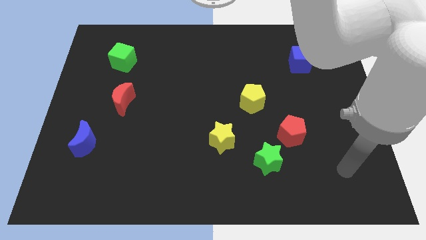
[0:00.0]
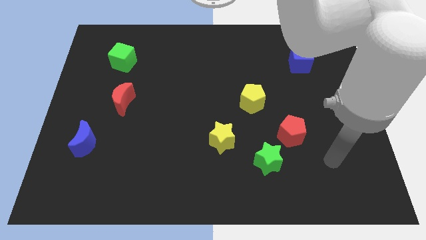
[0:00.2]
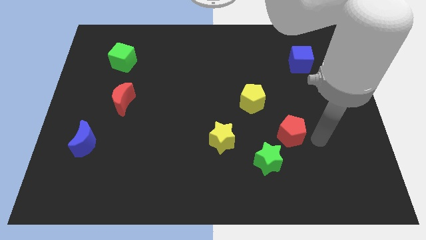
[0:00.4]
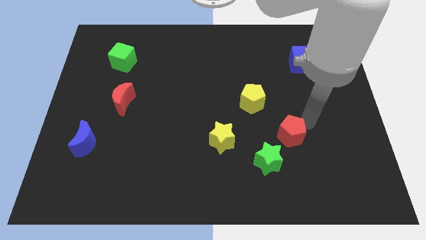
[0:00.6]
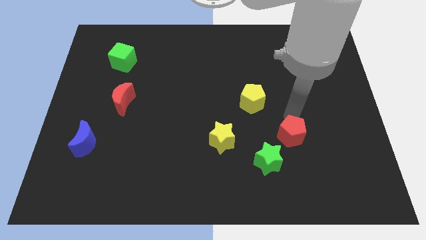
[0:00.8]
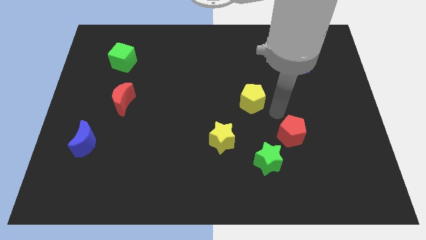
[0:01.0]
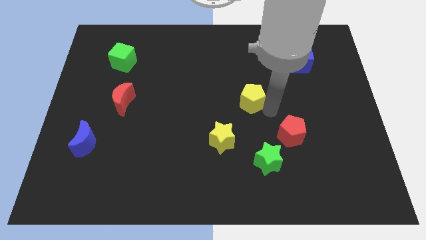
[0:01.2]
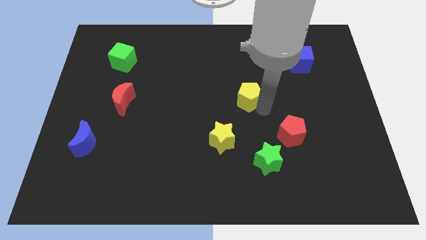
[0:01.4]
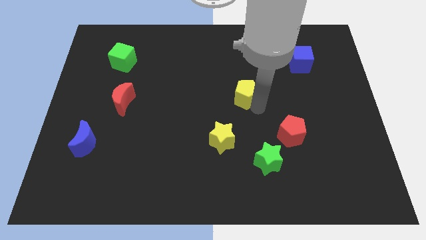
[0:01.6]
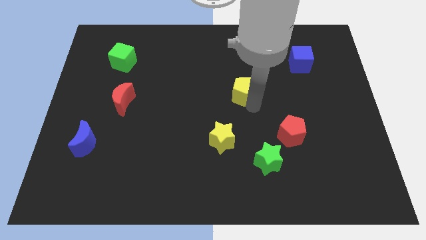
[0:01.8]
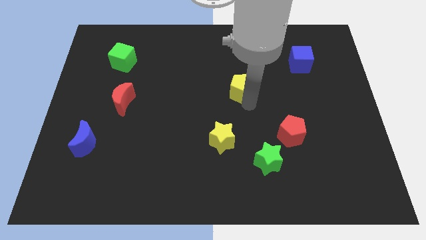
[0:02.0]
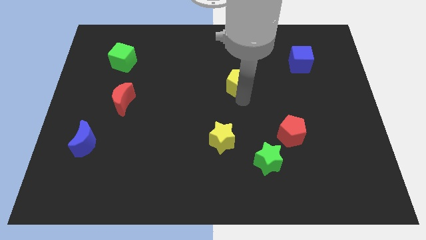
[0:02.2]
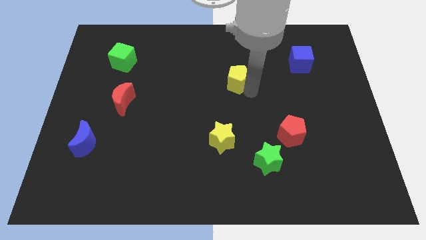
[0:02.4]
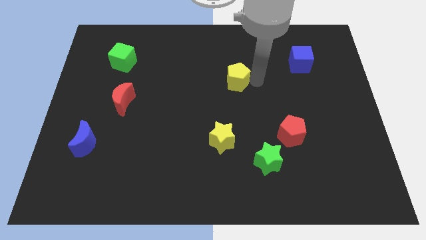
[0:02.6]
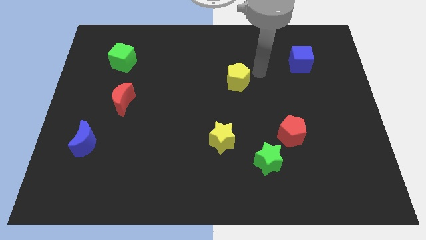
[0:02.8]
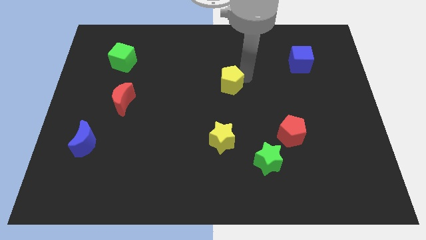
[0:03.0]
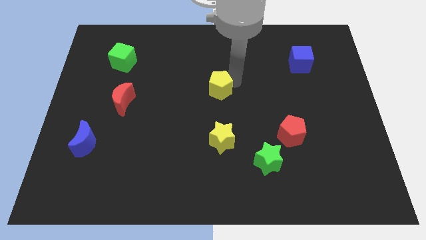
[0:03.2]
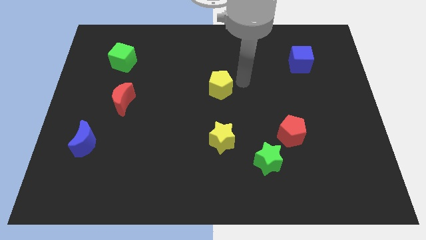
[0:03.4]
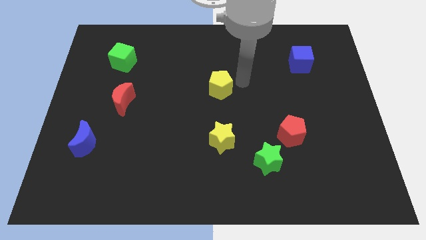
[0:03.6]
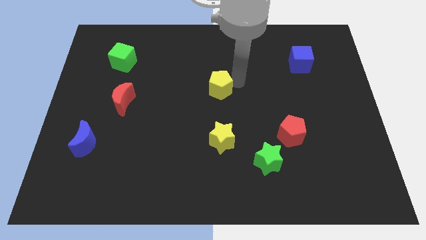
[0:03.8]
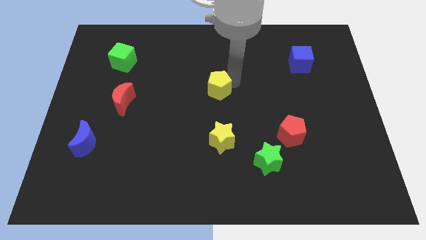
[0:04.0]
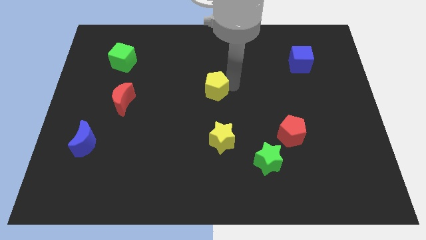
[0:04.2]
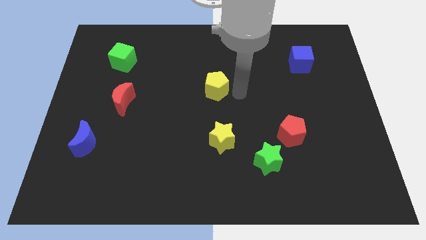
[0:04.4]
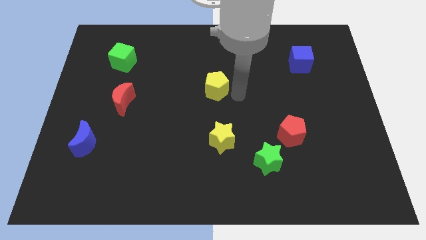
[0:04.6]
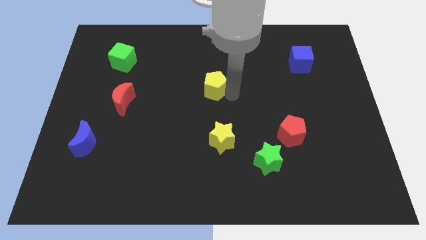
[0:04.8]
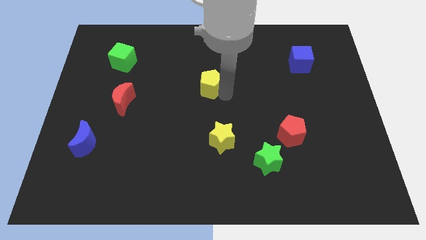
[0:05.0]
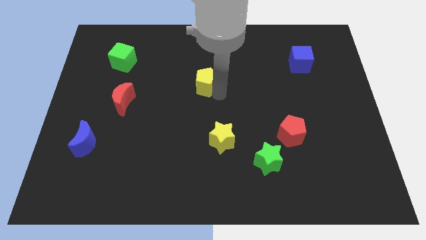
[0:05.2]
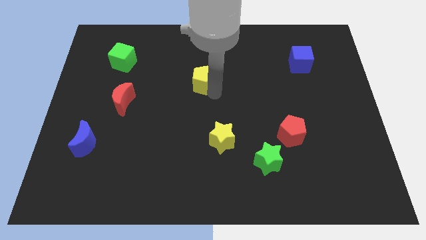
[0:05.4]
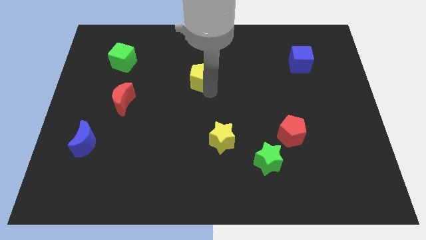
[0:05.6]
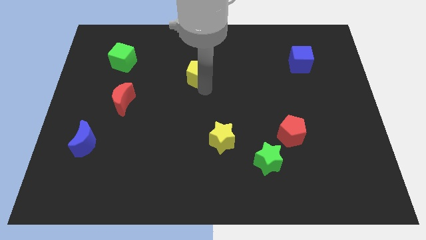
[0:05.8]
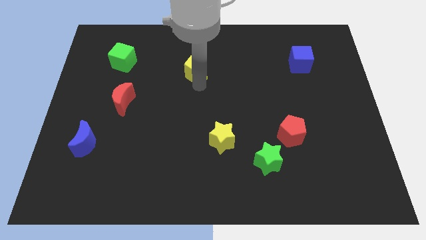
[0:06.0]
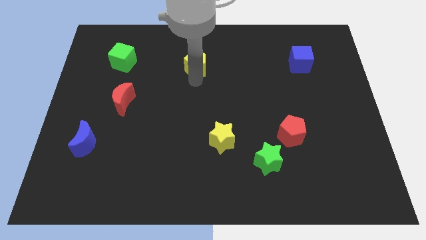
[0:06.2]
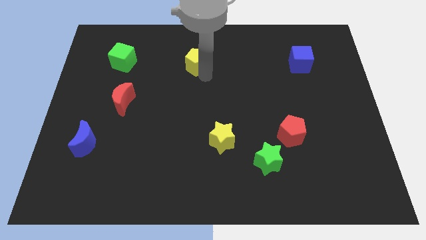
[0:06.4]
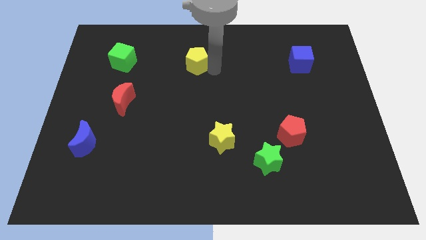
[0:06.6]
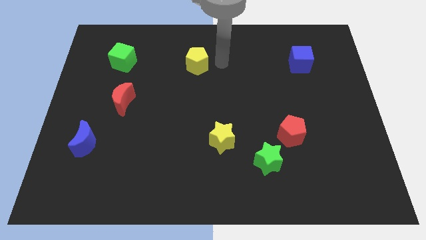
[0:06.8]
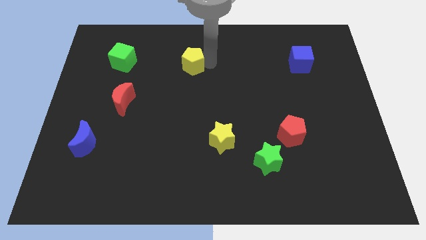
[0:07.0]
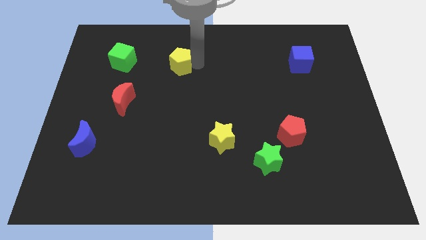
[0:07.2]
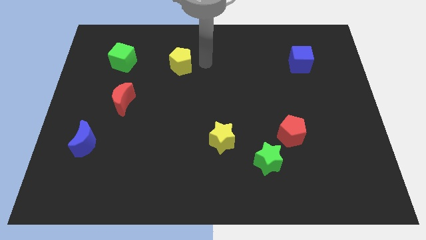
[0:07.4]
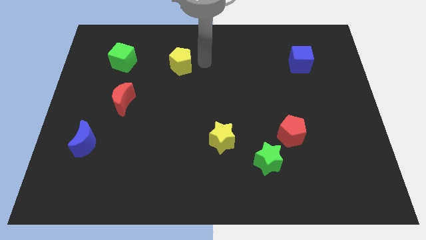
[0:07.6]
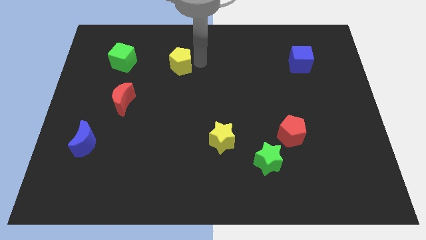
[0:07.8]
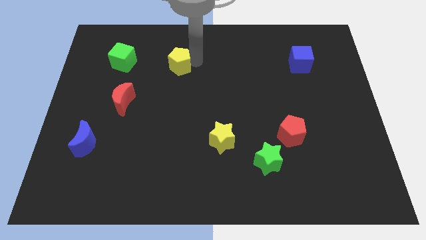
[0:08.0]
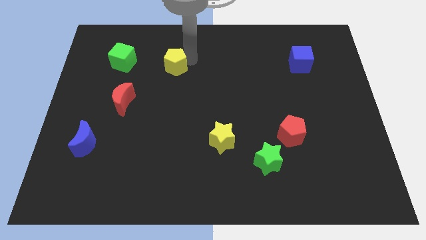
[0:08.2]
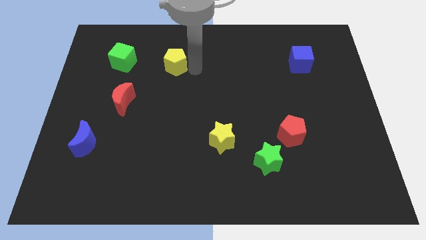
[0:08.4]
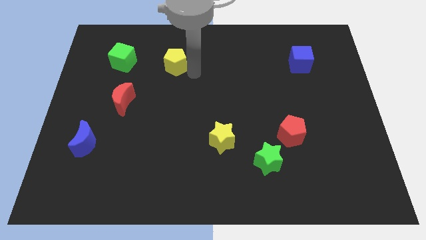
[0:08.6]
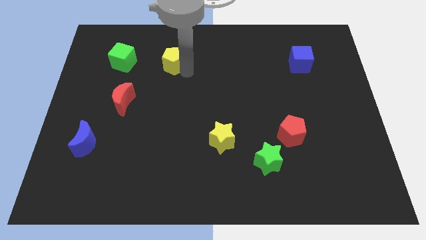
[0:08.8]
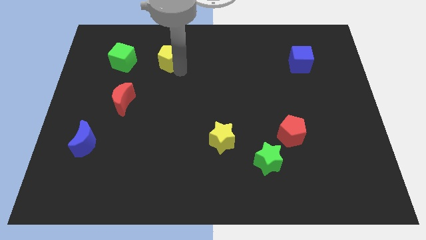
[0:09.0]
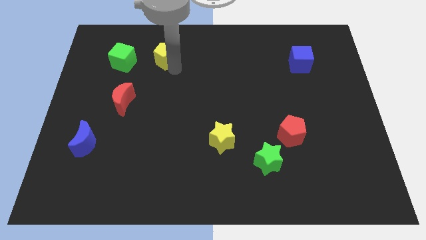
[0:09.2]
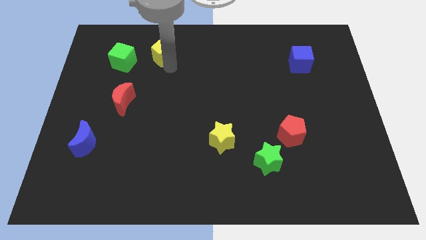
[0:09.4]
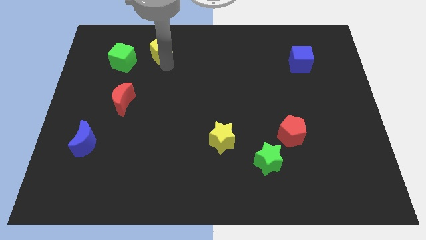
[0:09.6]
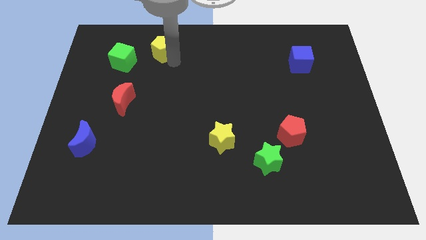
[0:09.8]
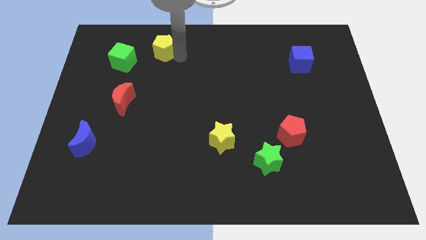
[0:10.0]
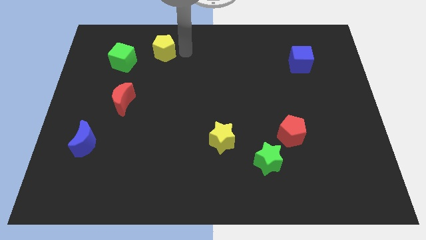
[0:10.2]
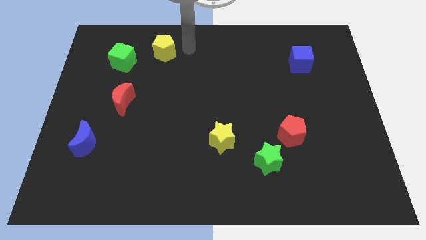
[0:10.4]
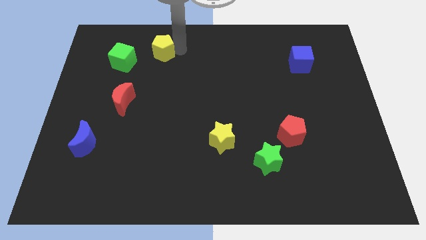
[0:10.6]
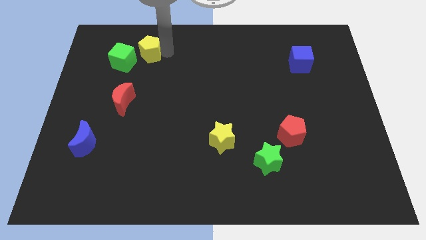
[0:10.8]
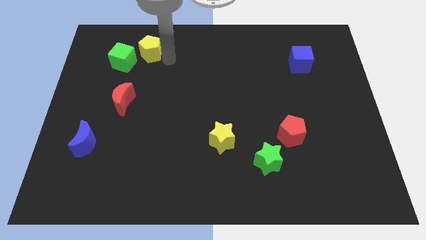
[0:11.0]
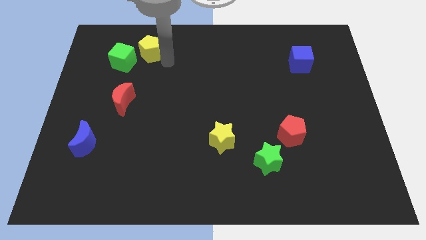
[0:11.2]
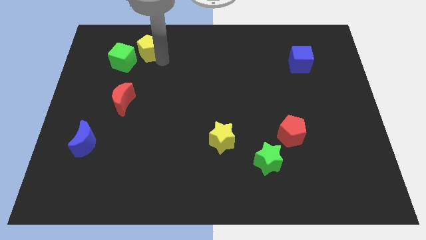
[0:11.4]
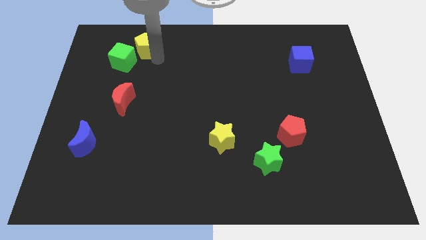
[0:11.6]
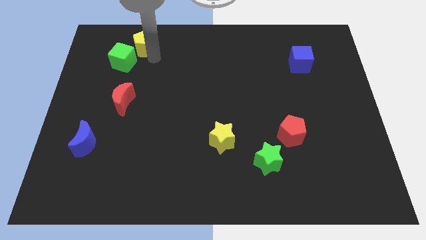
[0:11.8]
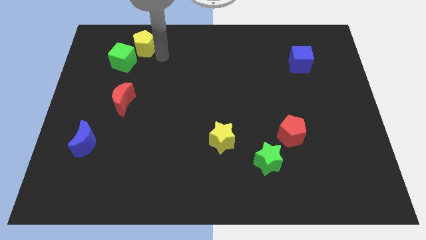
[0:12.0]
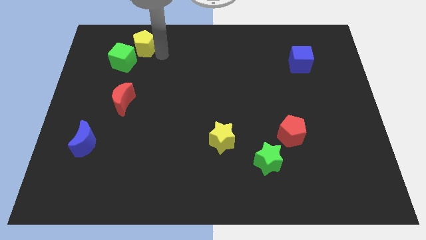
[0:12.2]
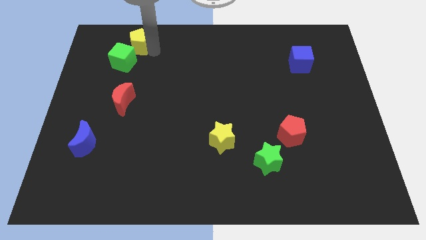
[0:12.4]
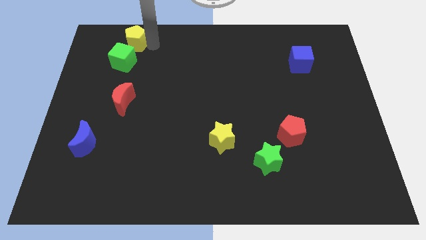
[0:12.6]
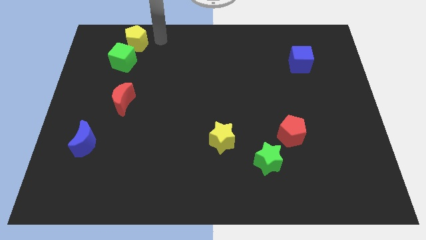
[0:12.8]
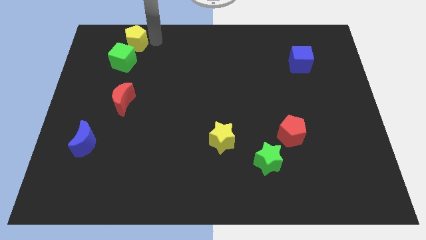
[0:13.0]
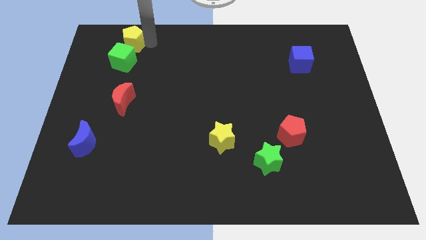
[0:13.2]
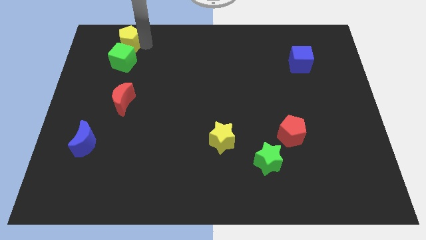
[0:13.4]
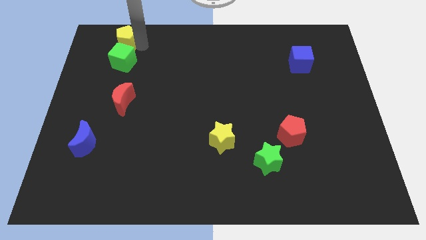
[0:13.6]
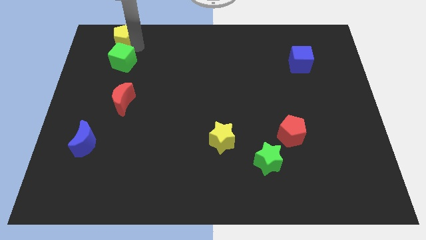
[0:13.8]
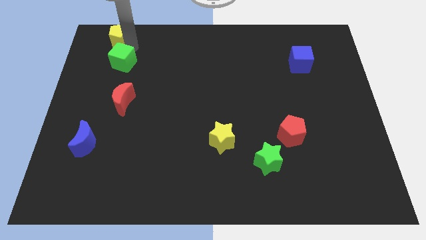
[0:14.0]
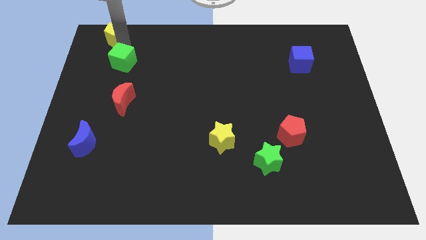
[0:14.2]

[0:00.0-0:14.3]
put the yellow pentagon to the top left

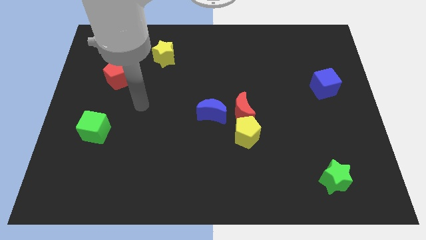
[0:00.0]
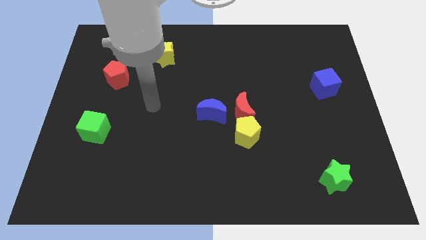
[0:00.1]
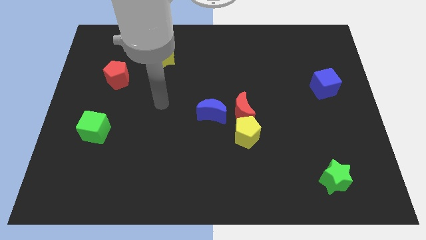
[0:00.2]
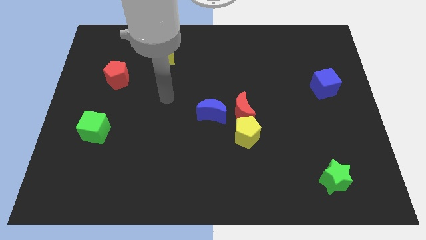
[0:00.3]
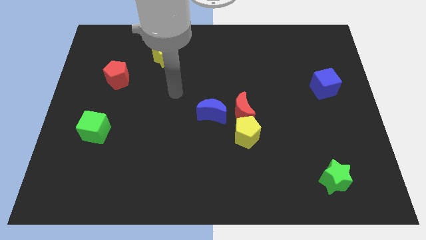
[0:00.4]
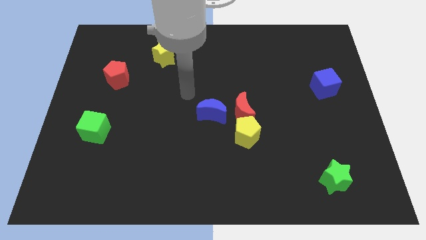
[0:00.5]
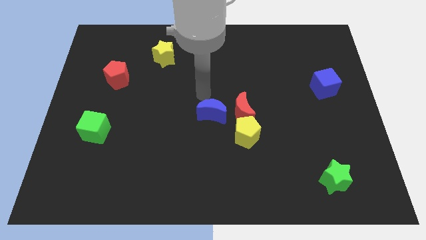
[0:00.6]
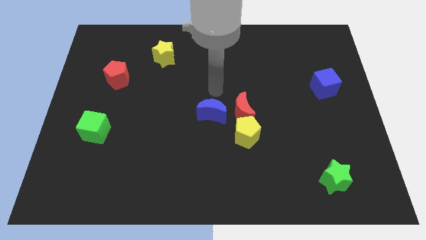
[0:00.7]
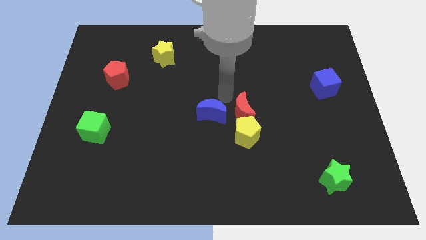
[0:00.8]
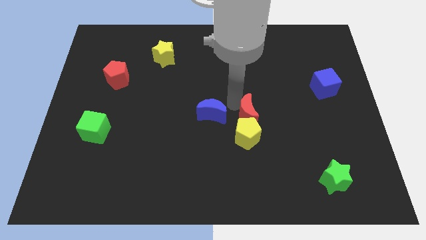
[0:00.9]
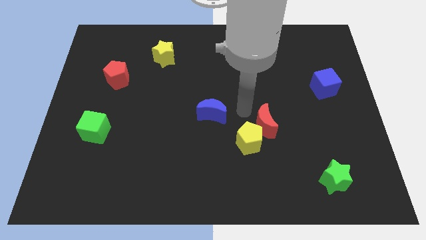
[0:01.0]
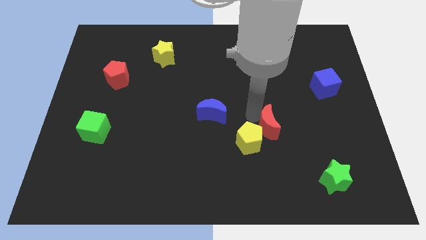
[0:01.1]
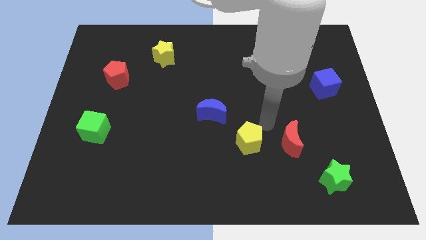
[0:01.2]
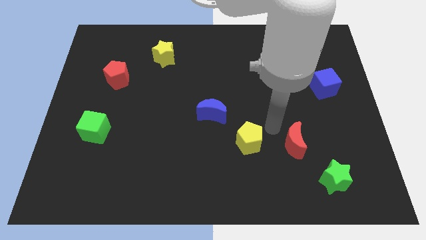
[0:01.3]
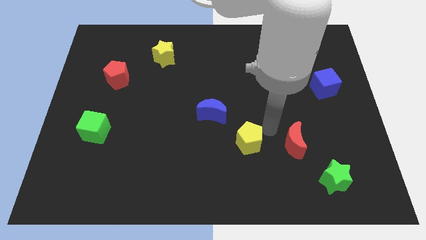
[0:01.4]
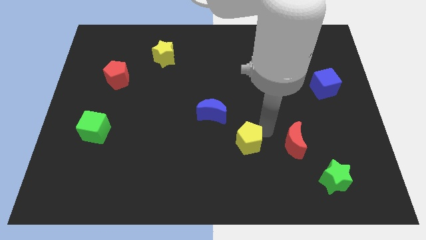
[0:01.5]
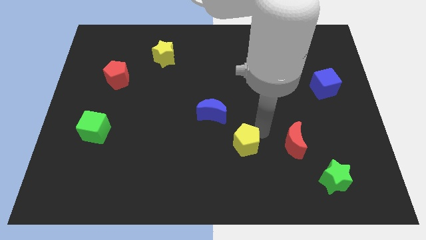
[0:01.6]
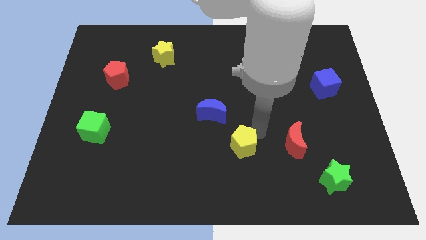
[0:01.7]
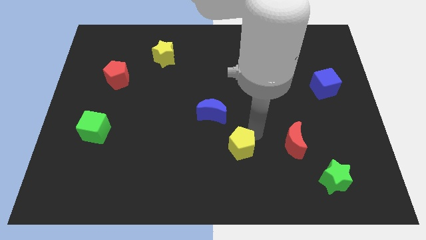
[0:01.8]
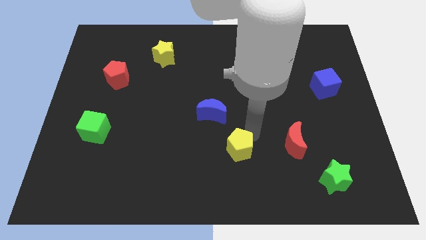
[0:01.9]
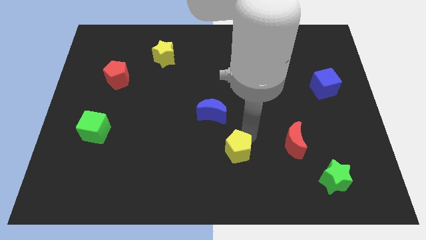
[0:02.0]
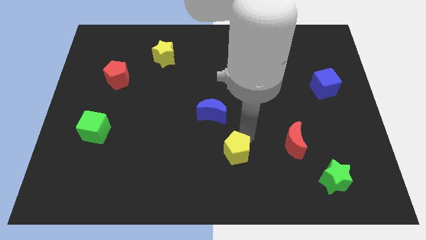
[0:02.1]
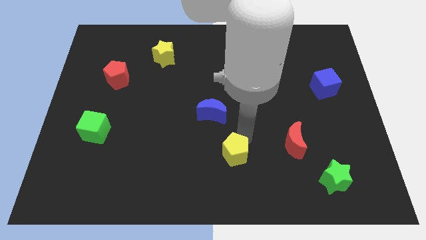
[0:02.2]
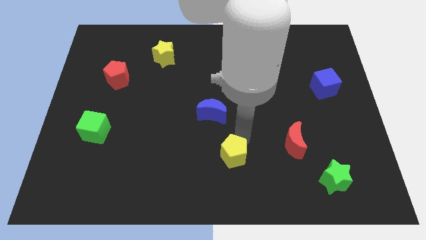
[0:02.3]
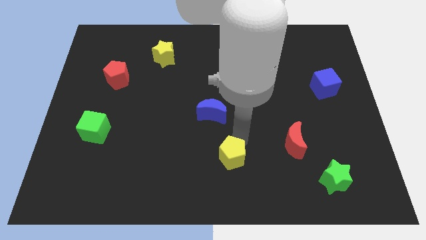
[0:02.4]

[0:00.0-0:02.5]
put the yellow pentagon to the bottom
